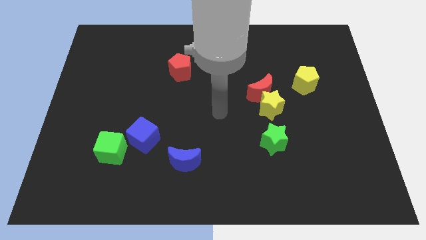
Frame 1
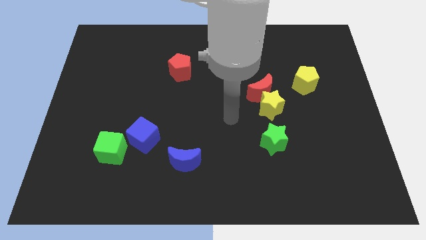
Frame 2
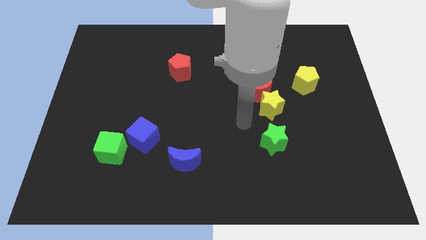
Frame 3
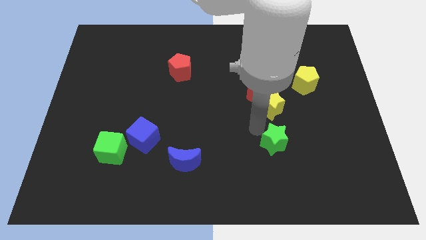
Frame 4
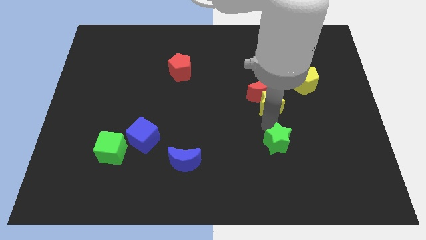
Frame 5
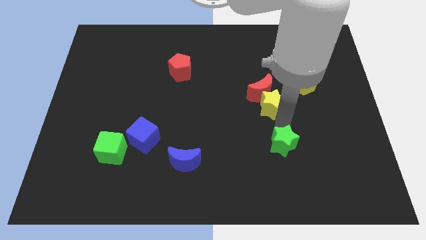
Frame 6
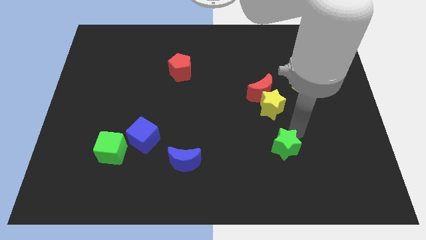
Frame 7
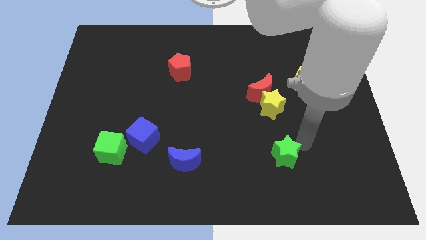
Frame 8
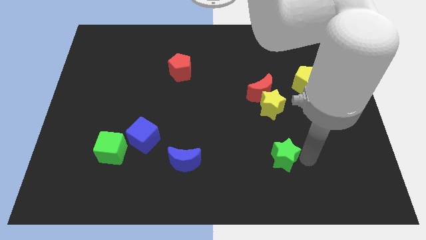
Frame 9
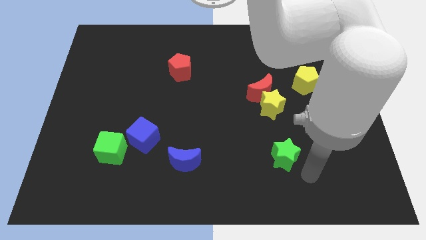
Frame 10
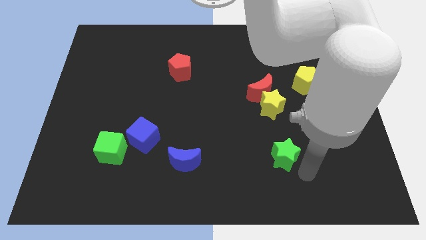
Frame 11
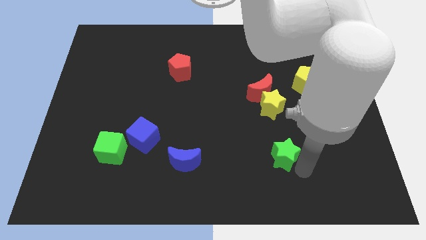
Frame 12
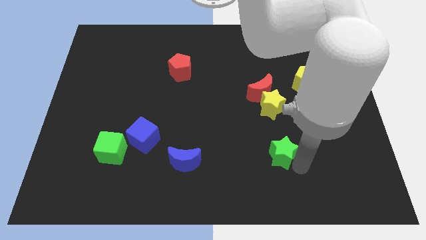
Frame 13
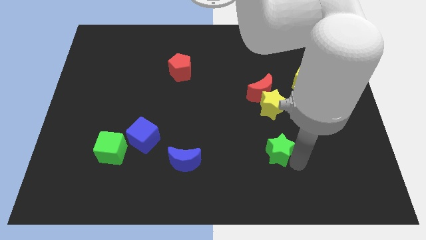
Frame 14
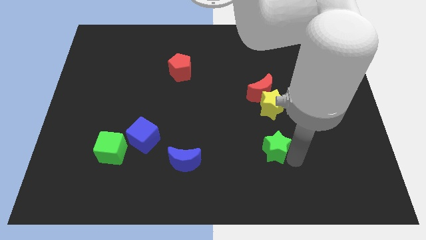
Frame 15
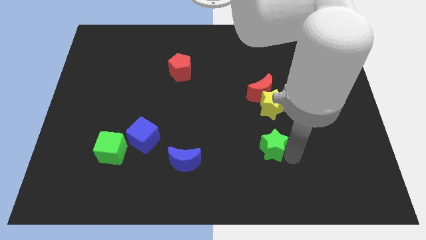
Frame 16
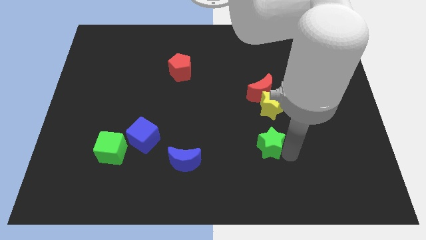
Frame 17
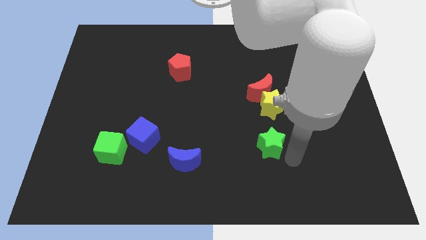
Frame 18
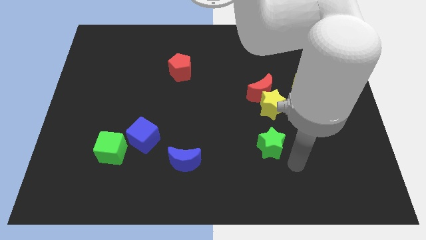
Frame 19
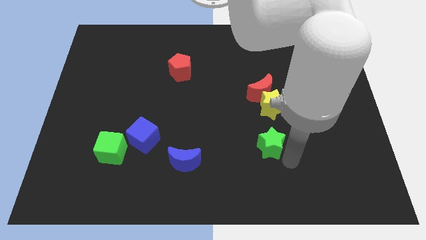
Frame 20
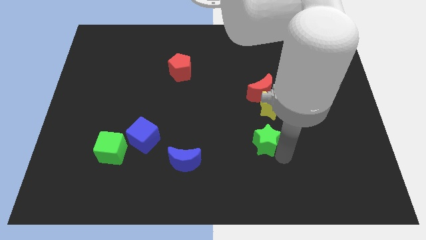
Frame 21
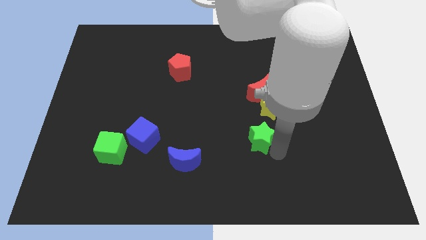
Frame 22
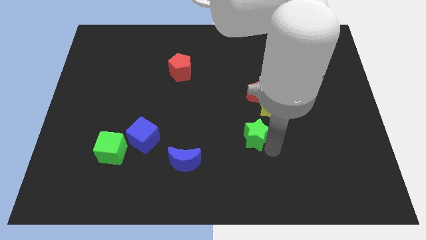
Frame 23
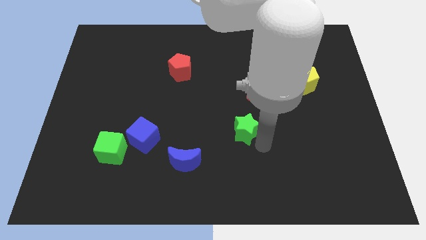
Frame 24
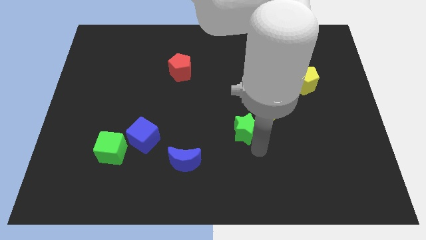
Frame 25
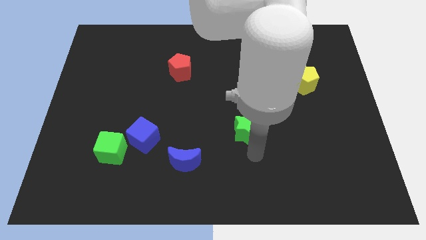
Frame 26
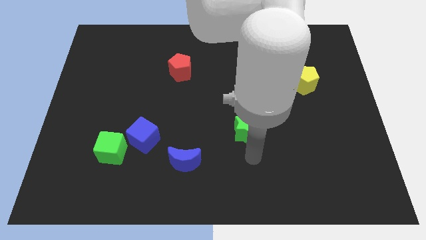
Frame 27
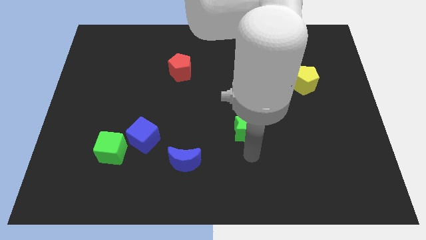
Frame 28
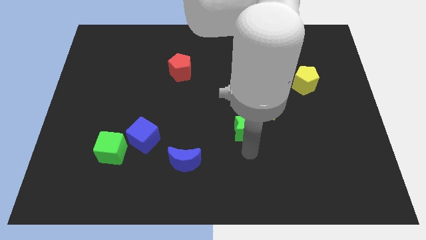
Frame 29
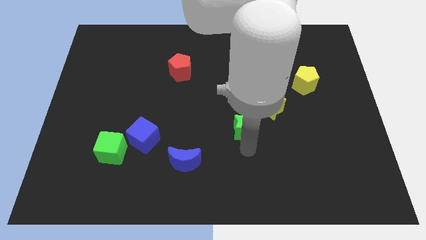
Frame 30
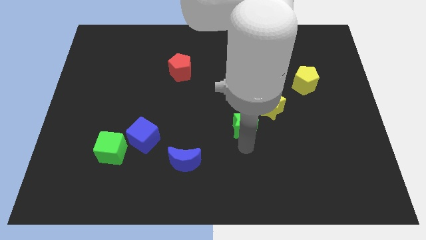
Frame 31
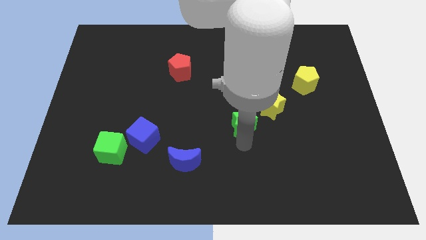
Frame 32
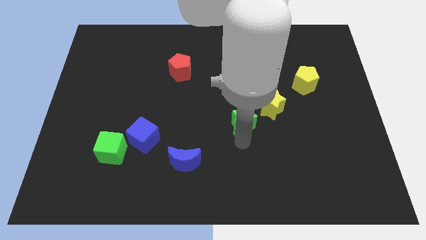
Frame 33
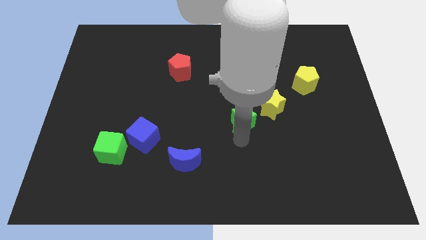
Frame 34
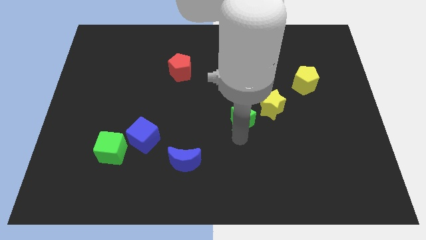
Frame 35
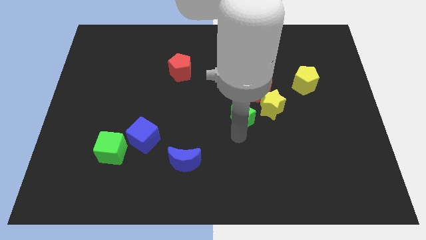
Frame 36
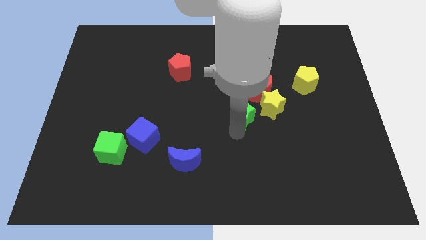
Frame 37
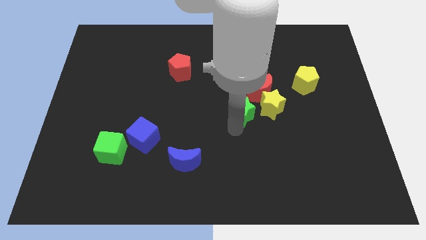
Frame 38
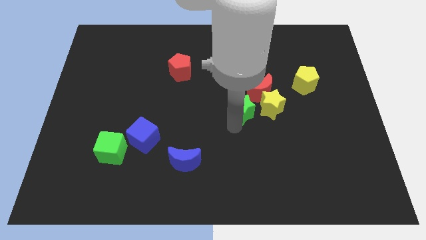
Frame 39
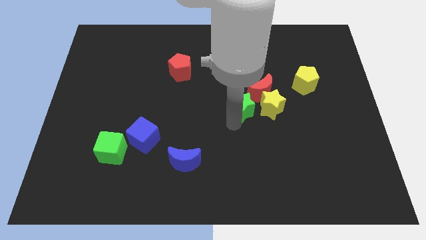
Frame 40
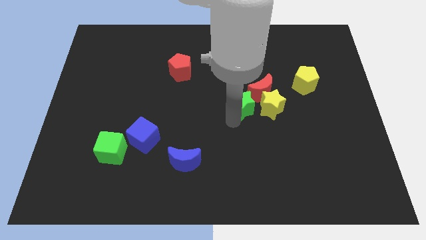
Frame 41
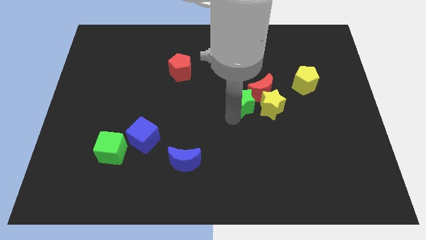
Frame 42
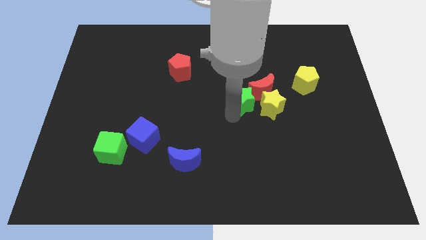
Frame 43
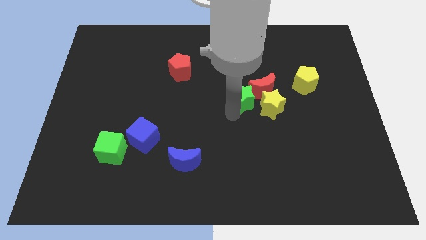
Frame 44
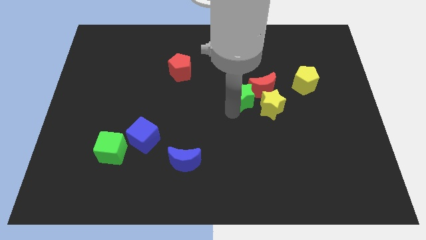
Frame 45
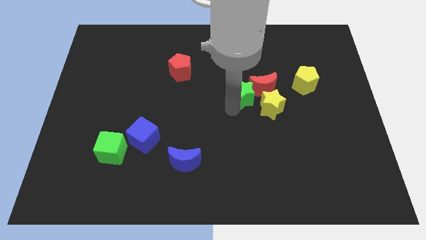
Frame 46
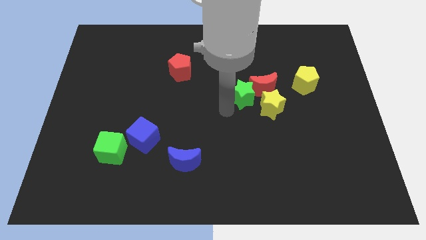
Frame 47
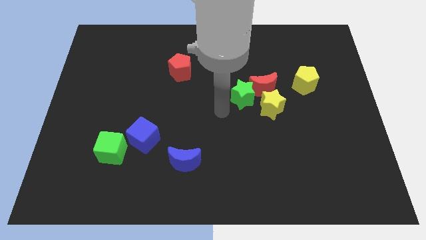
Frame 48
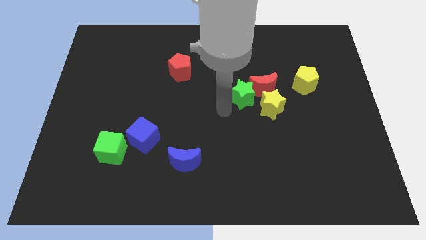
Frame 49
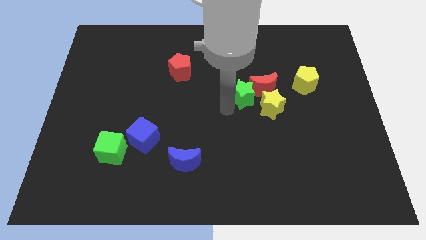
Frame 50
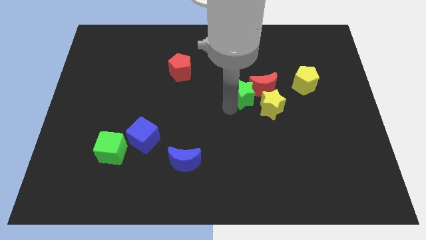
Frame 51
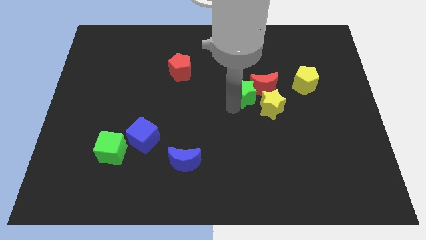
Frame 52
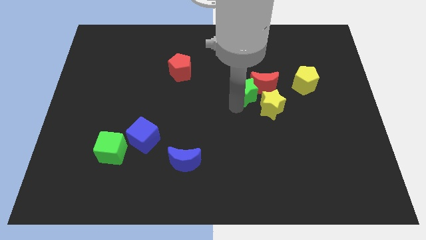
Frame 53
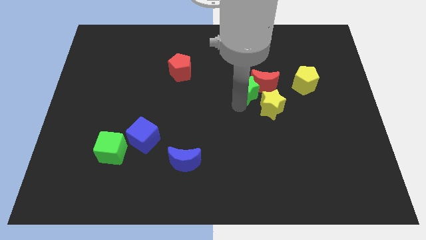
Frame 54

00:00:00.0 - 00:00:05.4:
slide the green star just left of the yellow pentagon

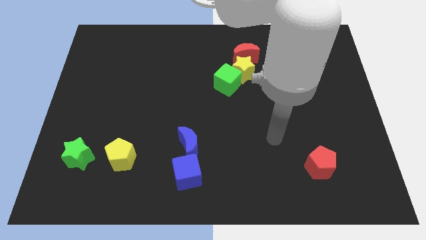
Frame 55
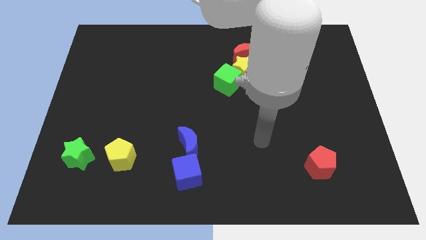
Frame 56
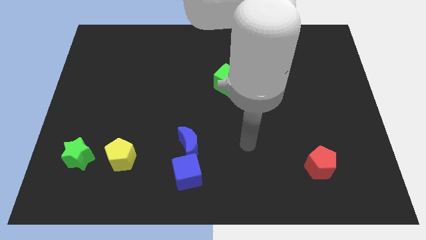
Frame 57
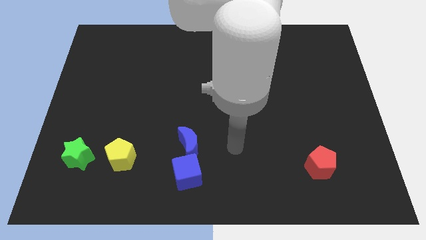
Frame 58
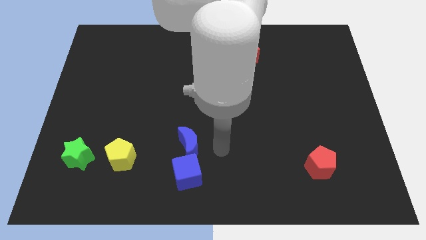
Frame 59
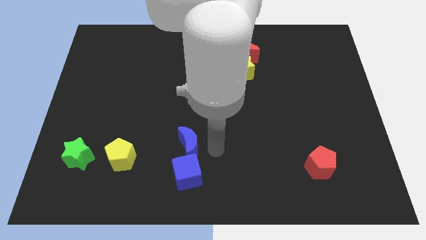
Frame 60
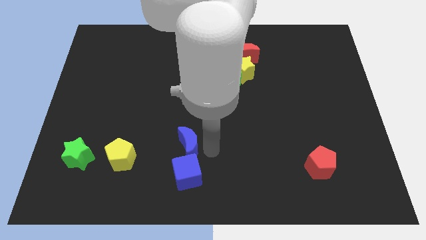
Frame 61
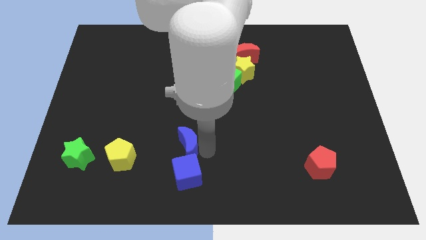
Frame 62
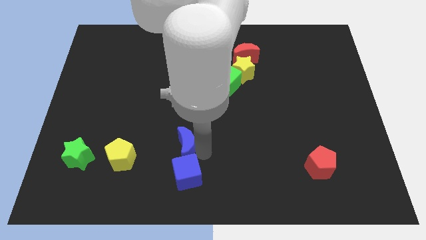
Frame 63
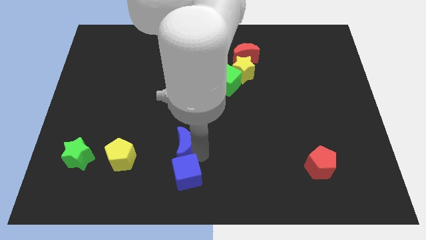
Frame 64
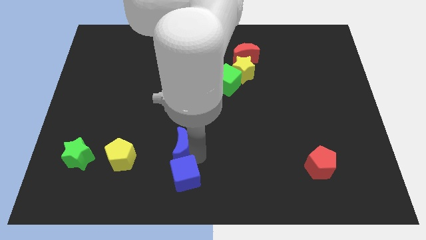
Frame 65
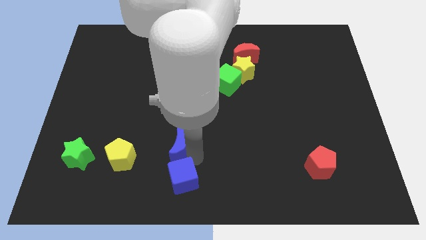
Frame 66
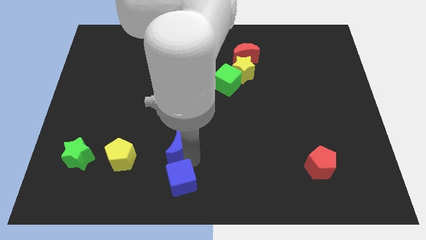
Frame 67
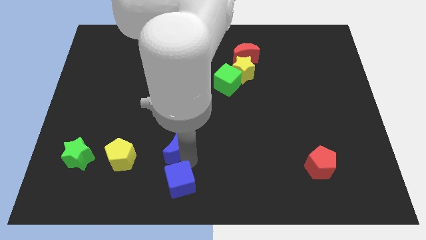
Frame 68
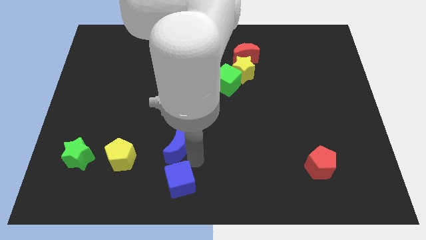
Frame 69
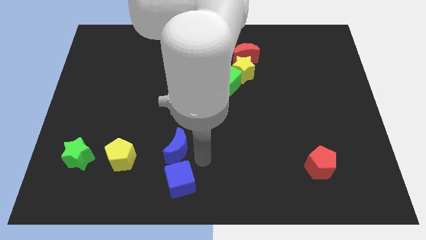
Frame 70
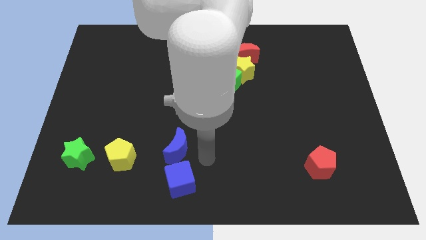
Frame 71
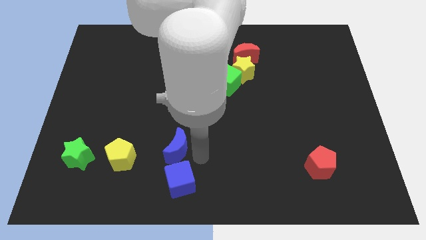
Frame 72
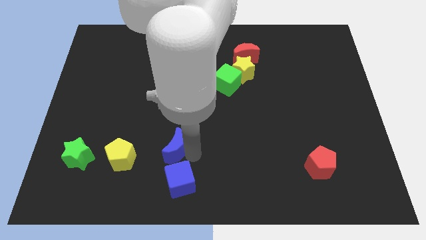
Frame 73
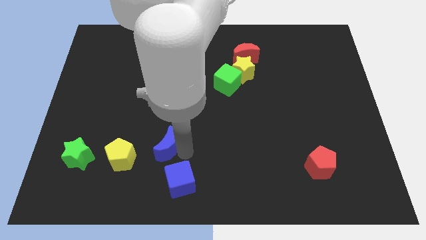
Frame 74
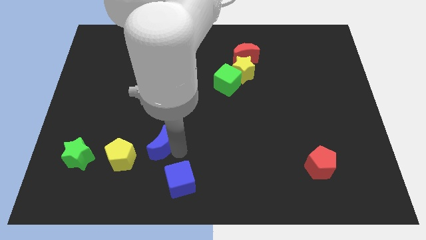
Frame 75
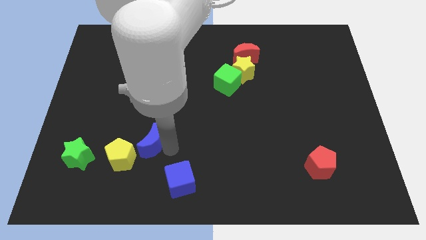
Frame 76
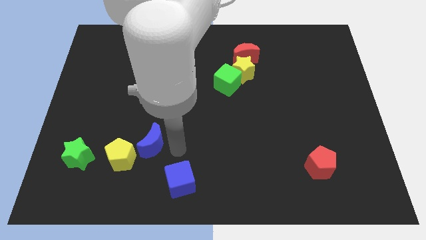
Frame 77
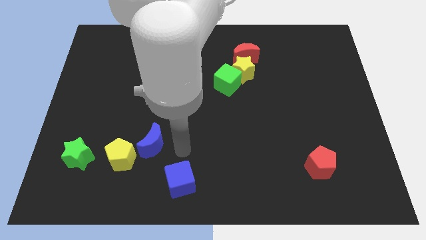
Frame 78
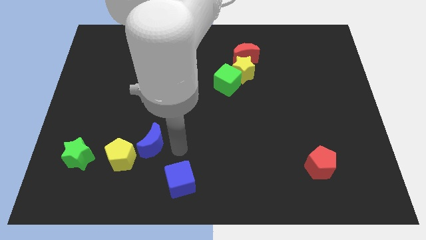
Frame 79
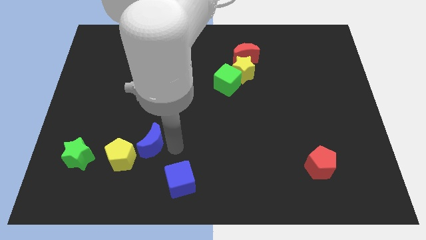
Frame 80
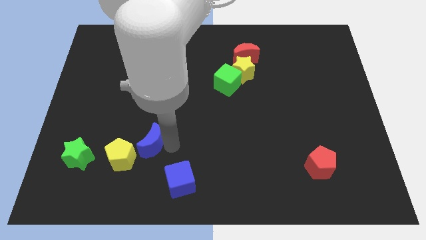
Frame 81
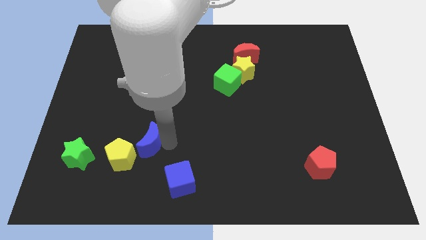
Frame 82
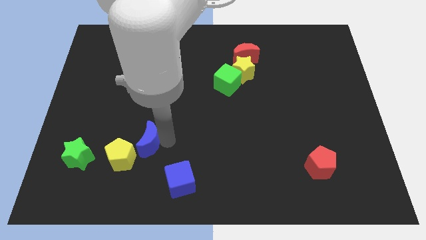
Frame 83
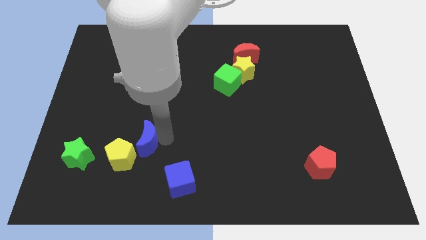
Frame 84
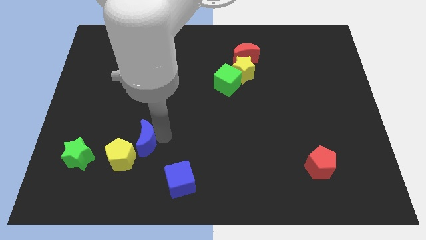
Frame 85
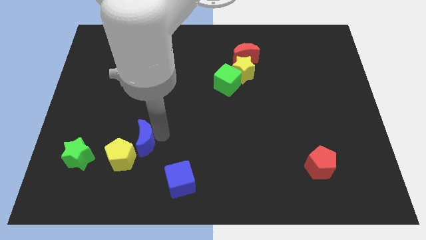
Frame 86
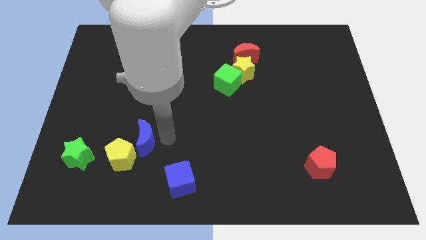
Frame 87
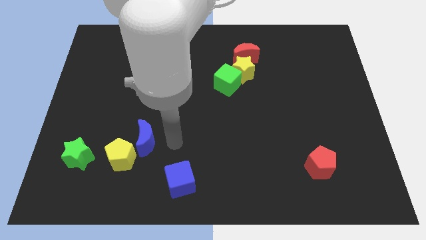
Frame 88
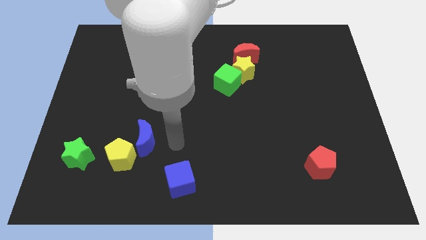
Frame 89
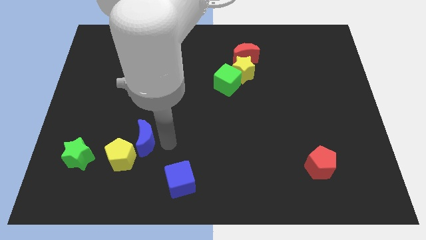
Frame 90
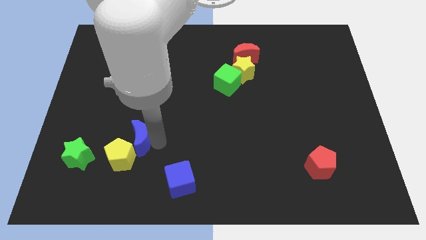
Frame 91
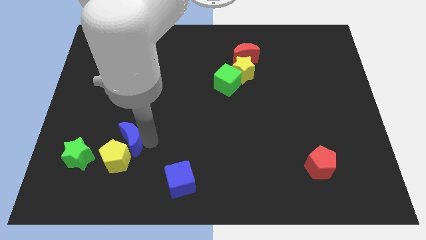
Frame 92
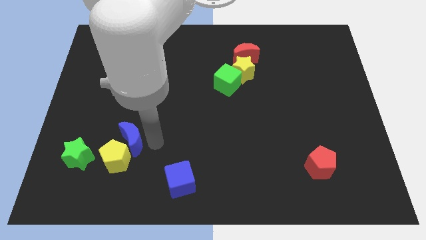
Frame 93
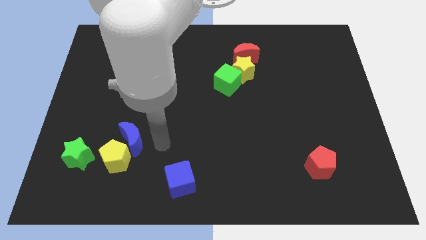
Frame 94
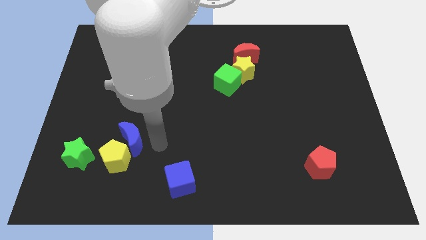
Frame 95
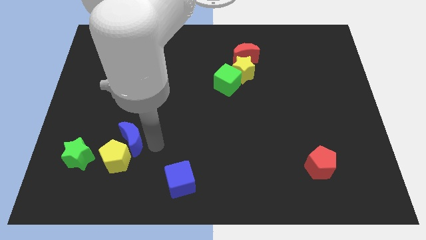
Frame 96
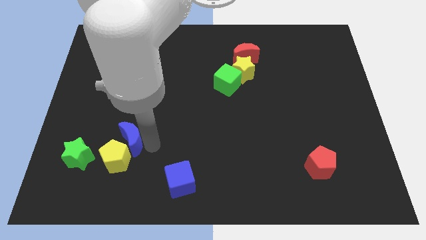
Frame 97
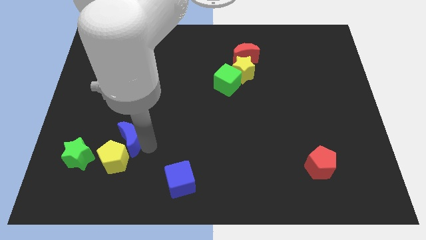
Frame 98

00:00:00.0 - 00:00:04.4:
put the blue moon to the top right side of the green star
